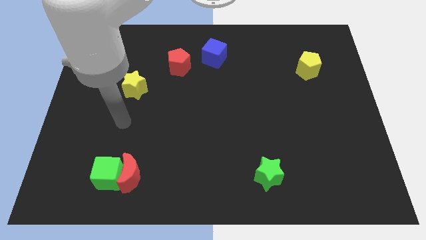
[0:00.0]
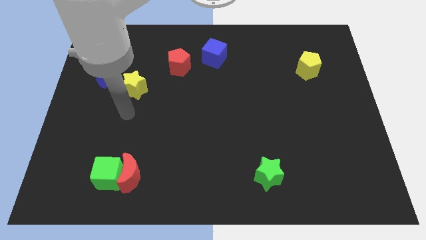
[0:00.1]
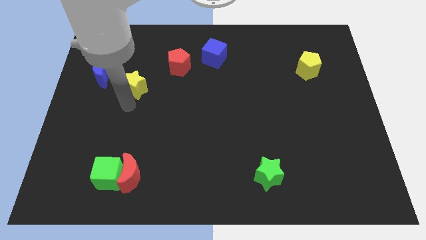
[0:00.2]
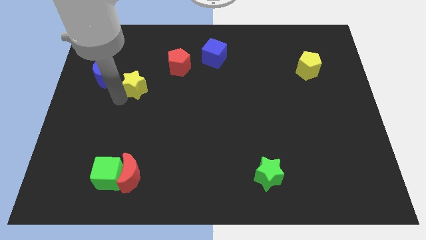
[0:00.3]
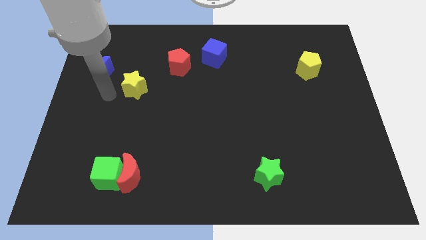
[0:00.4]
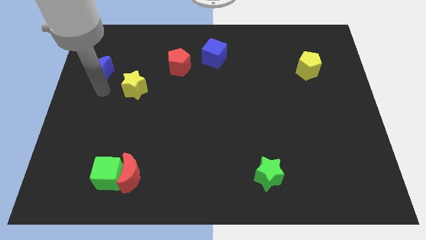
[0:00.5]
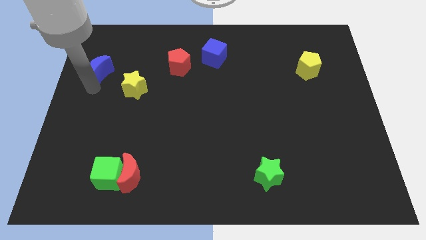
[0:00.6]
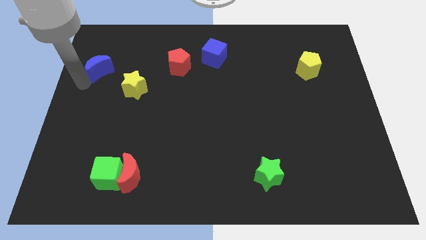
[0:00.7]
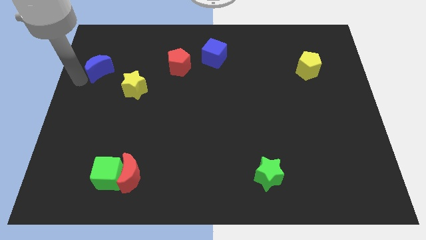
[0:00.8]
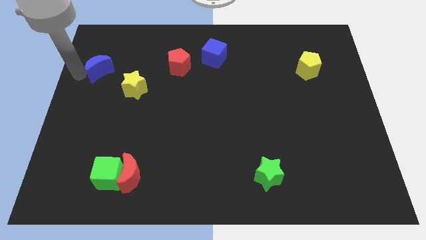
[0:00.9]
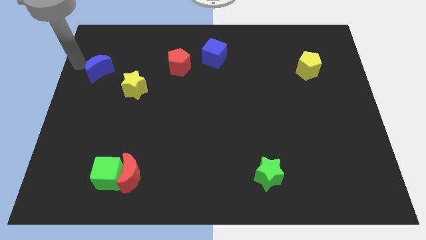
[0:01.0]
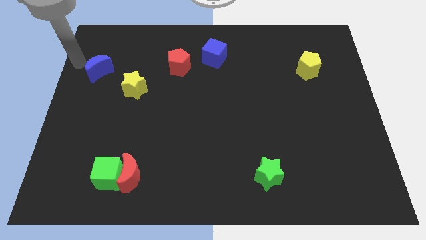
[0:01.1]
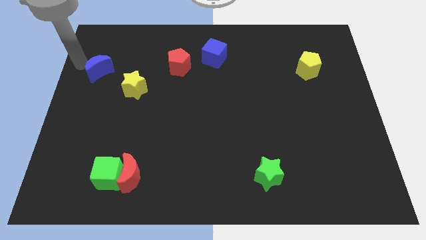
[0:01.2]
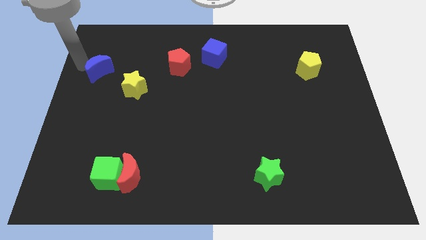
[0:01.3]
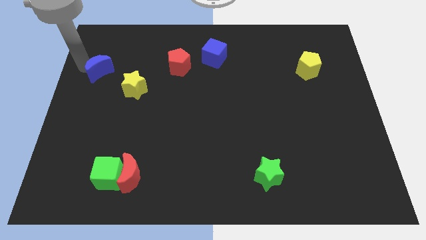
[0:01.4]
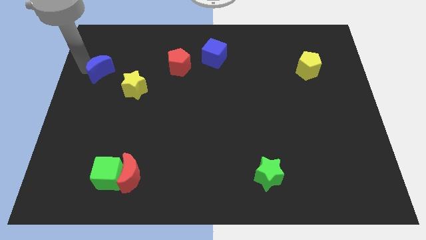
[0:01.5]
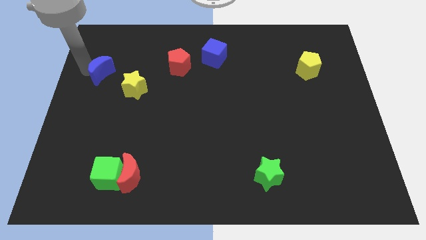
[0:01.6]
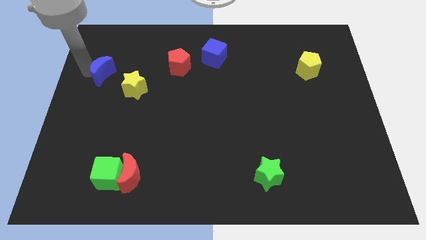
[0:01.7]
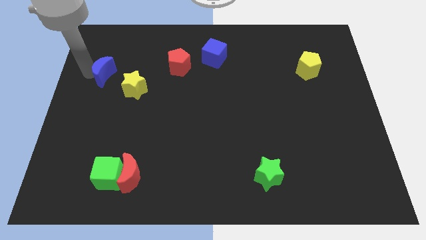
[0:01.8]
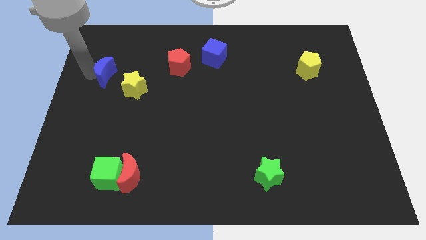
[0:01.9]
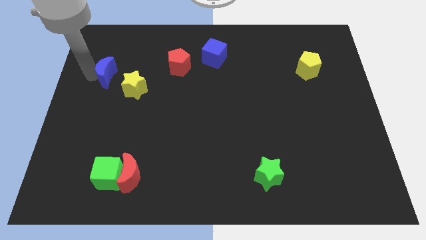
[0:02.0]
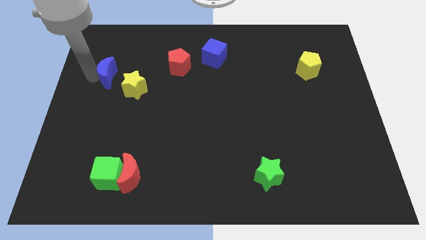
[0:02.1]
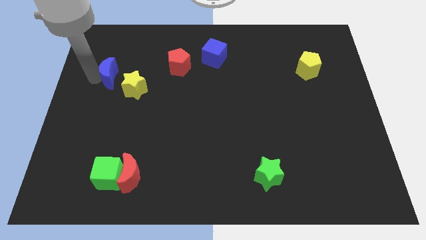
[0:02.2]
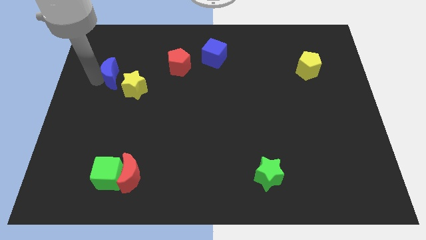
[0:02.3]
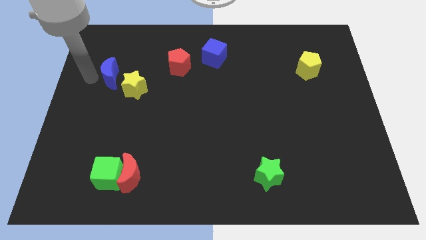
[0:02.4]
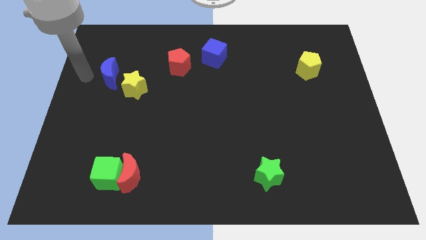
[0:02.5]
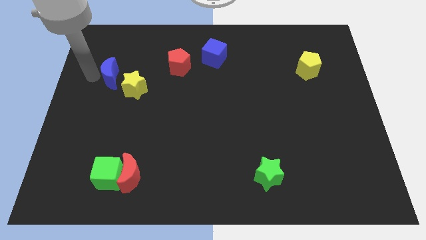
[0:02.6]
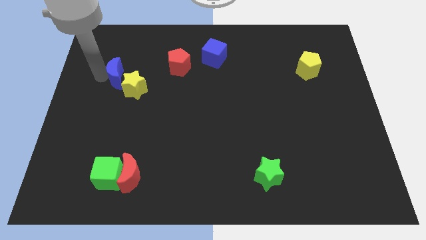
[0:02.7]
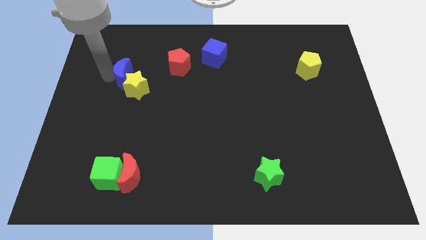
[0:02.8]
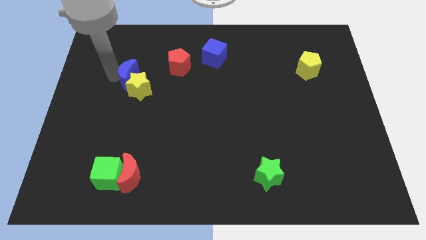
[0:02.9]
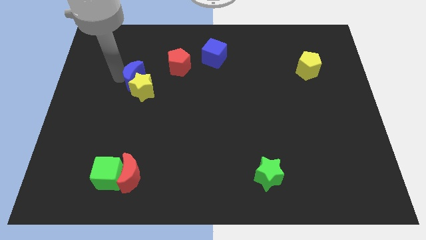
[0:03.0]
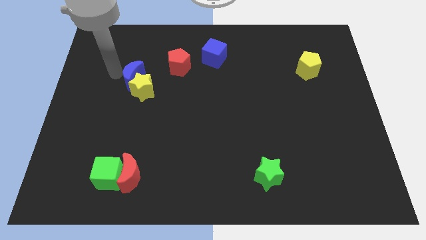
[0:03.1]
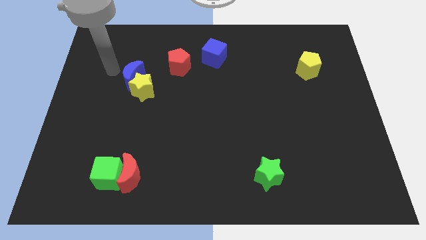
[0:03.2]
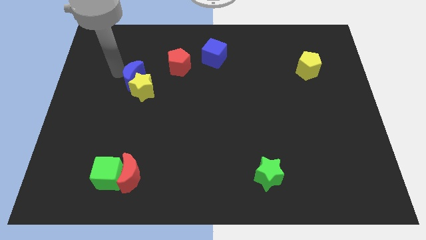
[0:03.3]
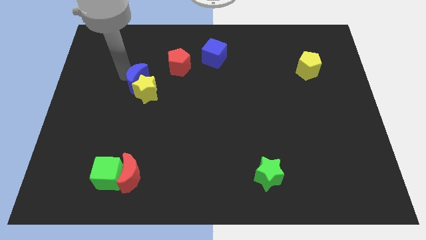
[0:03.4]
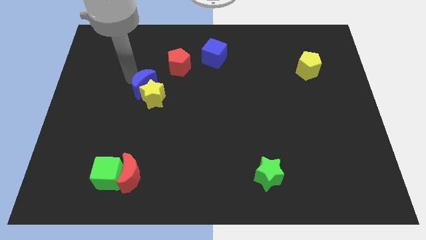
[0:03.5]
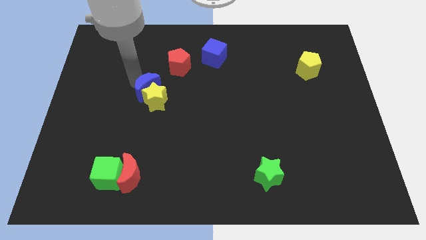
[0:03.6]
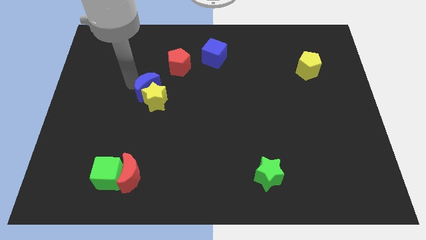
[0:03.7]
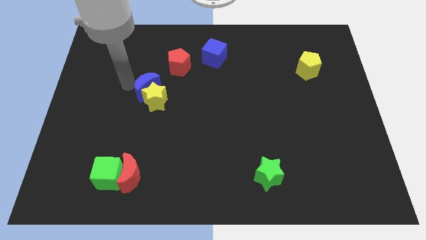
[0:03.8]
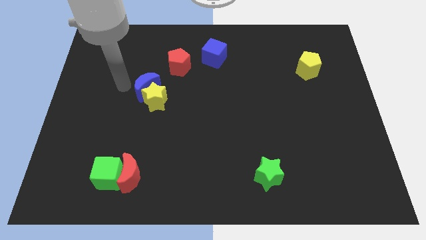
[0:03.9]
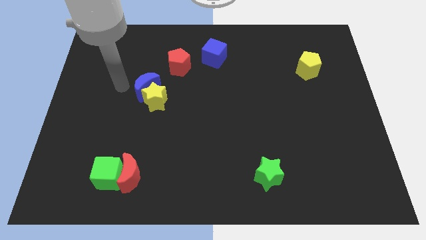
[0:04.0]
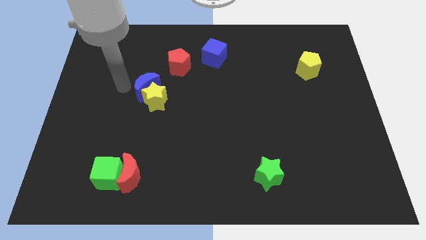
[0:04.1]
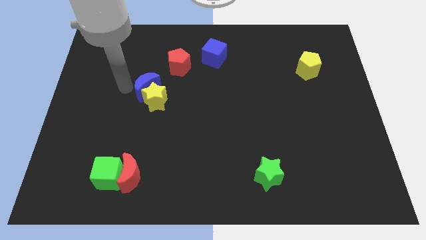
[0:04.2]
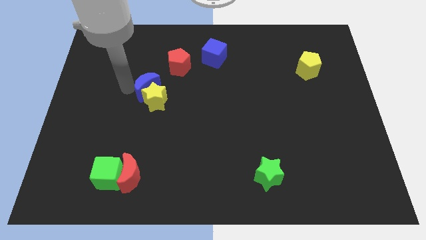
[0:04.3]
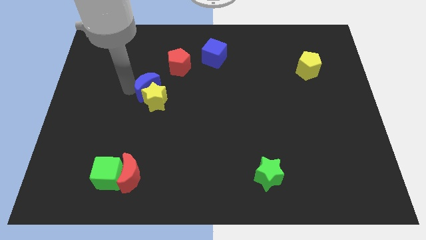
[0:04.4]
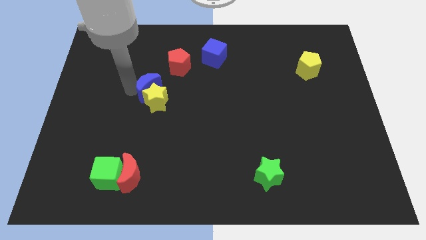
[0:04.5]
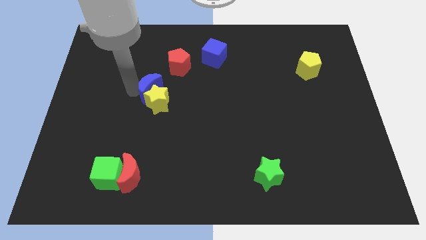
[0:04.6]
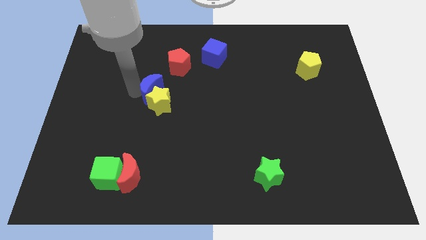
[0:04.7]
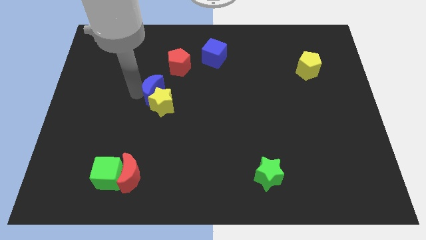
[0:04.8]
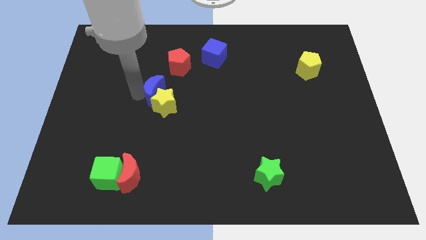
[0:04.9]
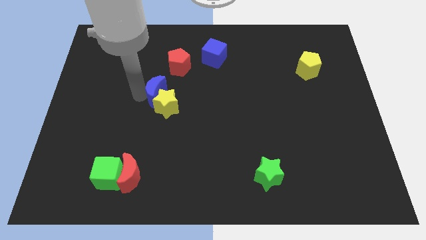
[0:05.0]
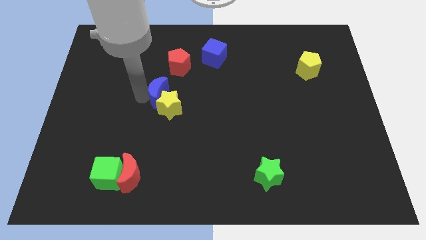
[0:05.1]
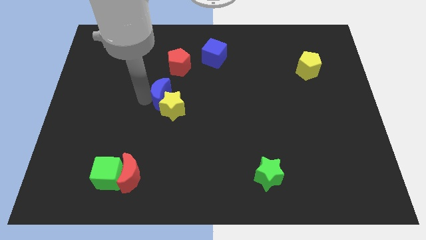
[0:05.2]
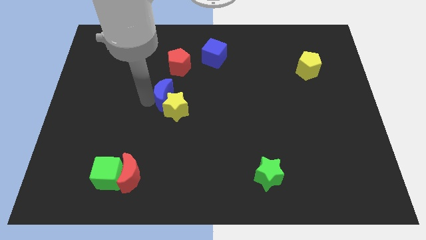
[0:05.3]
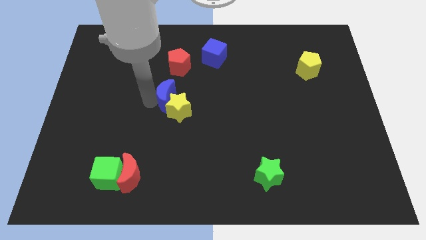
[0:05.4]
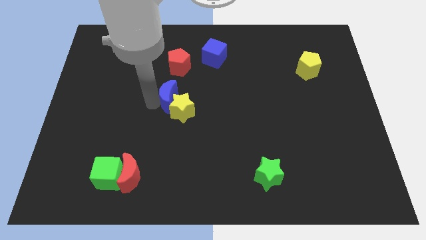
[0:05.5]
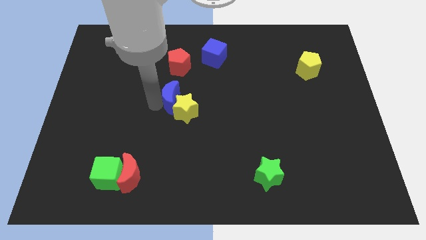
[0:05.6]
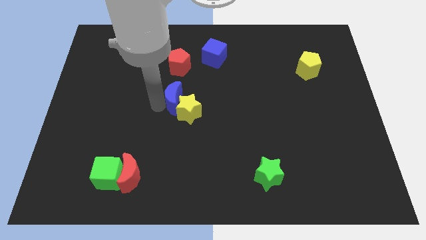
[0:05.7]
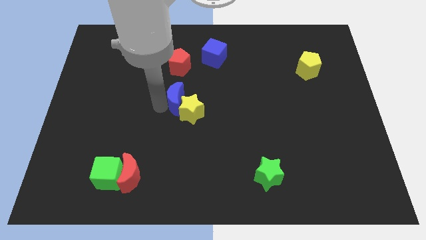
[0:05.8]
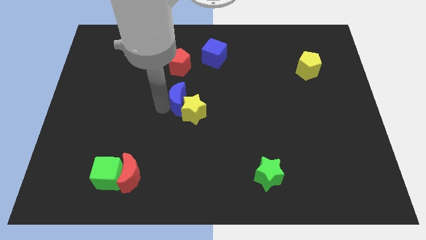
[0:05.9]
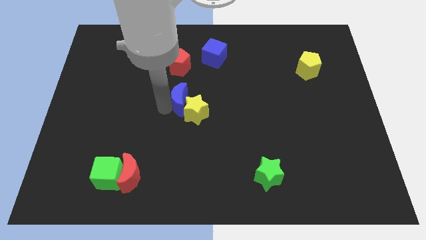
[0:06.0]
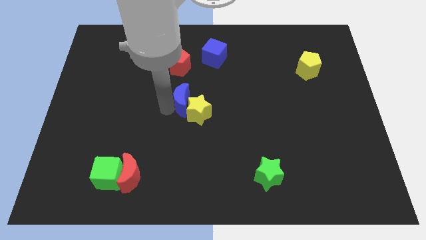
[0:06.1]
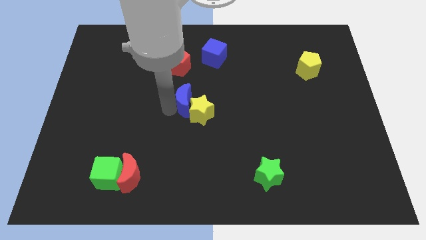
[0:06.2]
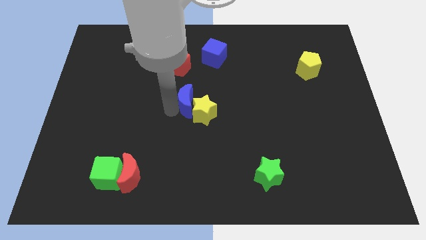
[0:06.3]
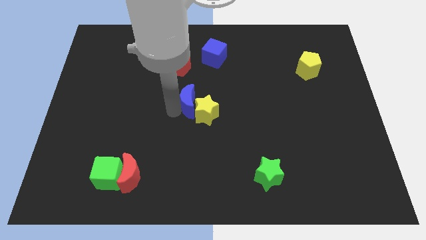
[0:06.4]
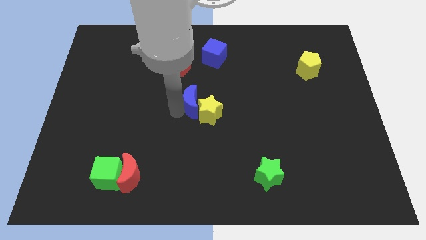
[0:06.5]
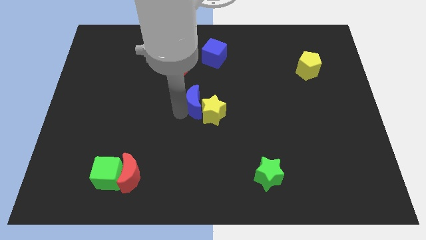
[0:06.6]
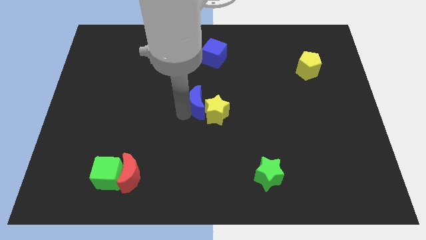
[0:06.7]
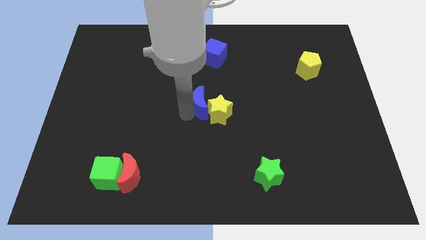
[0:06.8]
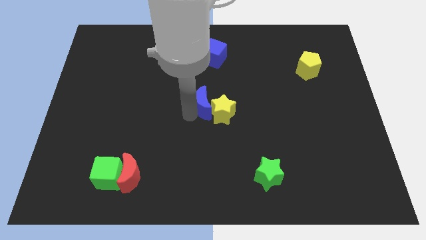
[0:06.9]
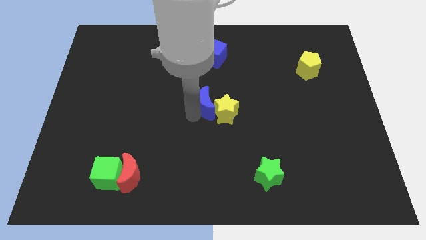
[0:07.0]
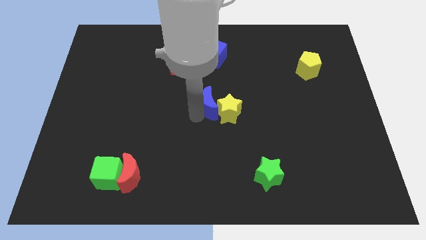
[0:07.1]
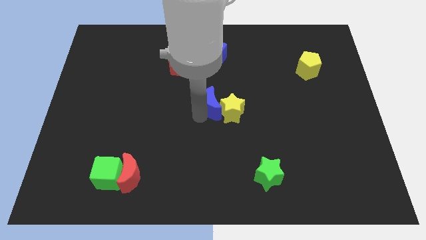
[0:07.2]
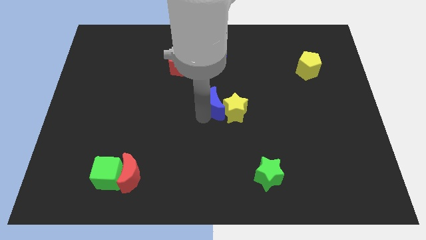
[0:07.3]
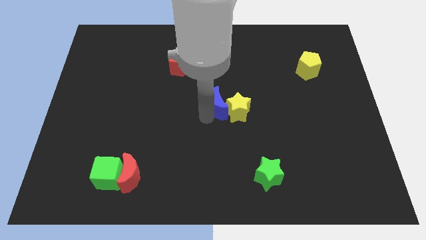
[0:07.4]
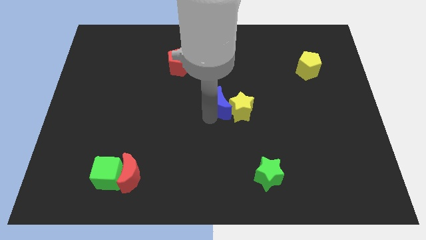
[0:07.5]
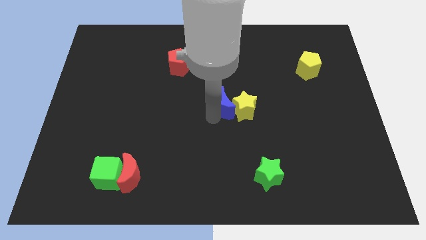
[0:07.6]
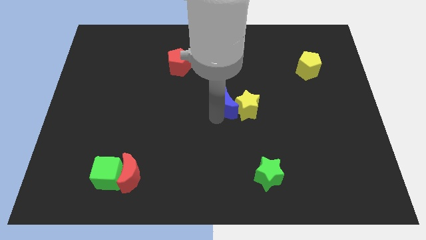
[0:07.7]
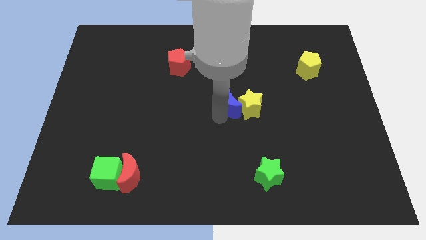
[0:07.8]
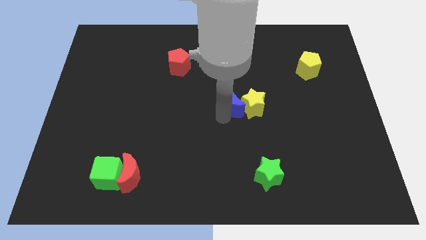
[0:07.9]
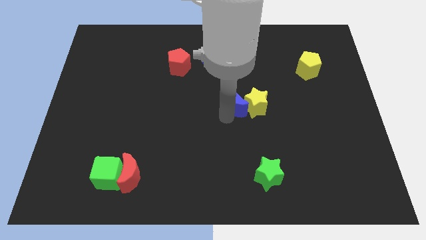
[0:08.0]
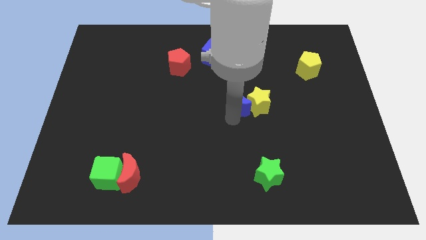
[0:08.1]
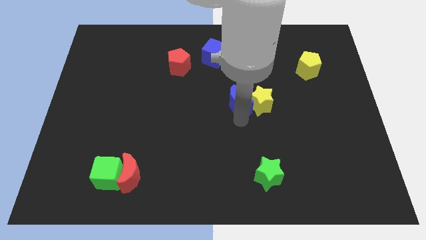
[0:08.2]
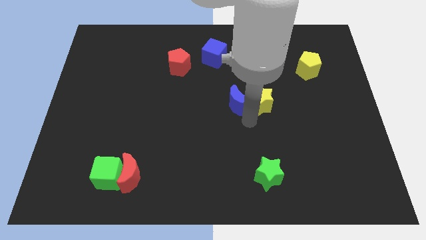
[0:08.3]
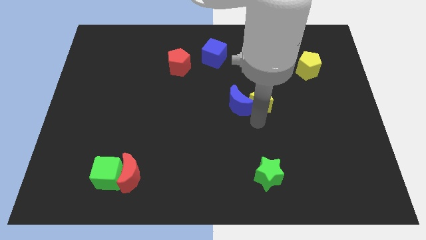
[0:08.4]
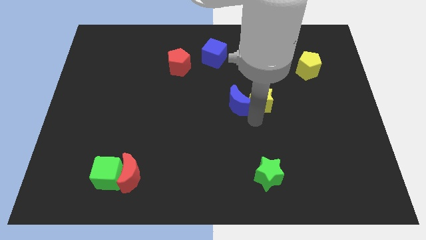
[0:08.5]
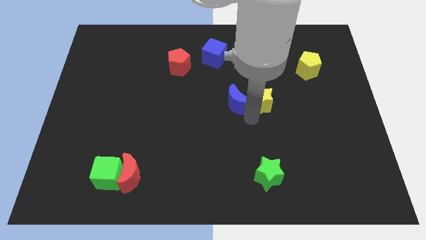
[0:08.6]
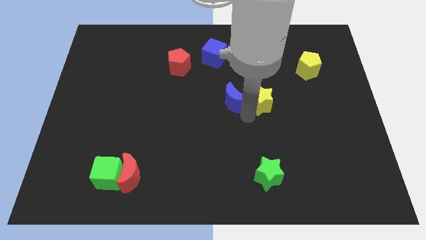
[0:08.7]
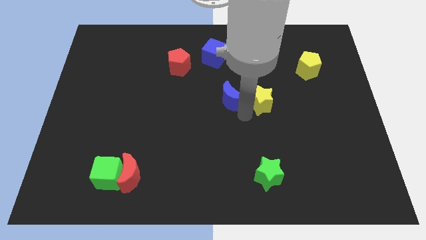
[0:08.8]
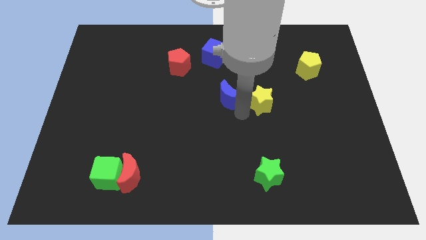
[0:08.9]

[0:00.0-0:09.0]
slide the blue moon to the bottom side of the blue cube
